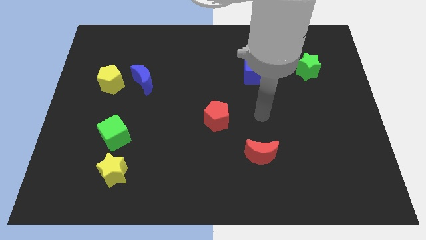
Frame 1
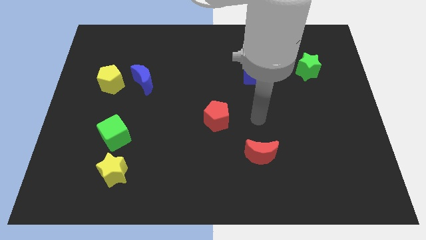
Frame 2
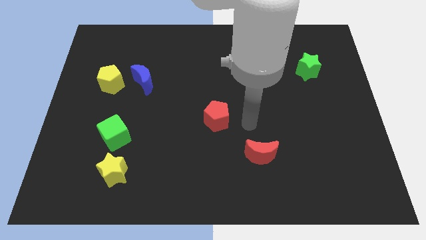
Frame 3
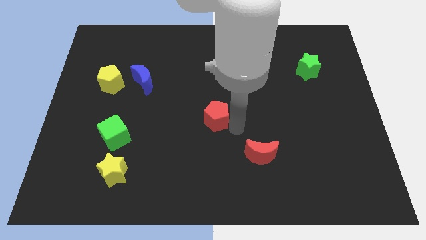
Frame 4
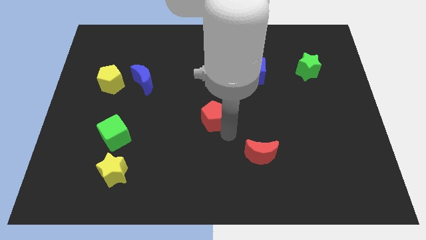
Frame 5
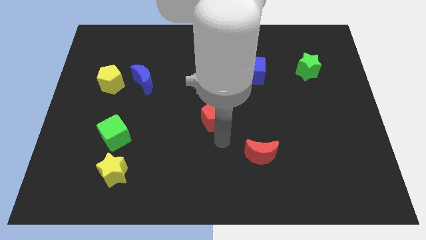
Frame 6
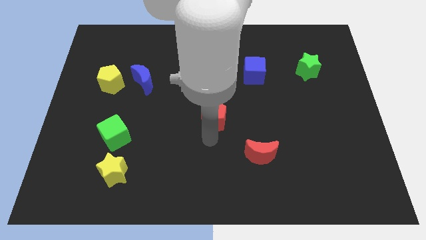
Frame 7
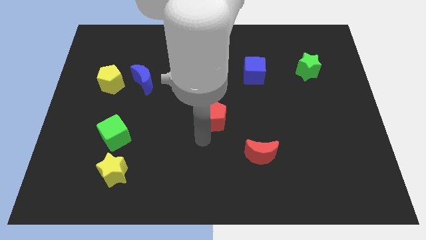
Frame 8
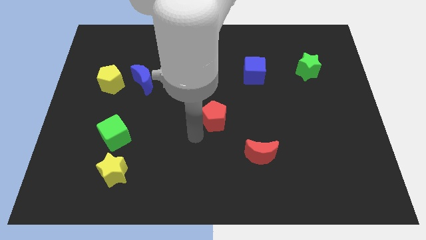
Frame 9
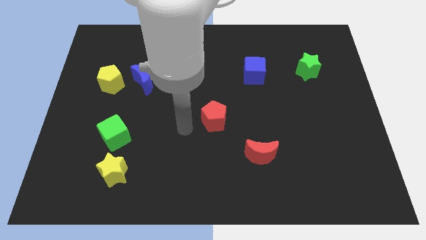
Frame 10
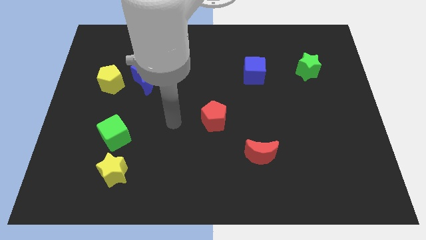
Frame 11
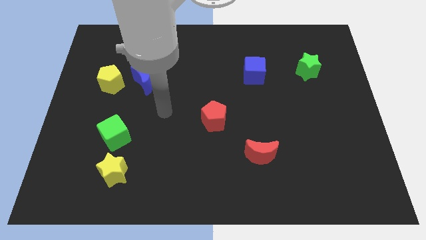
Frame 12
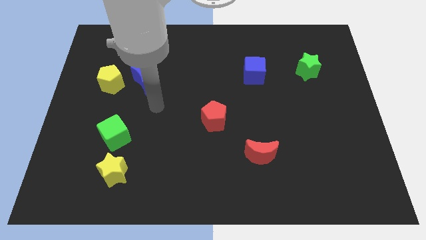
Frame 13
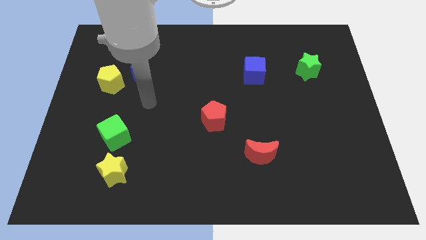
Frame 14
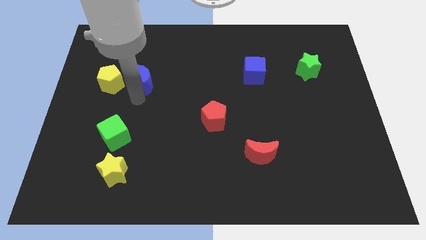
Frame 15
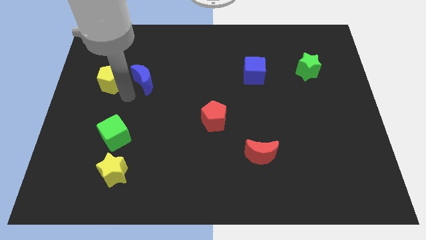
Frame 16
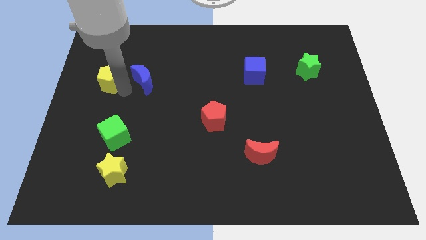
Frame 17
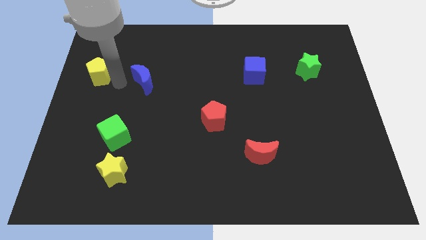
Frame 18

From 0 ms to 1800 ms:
pull the blue moon apart from the yellow pentagon

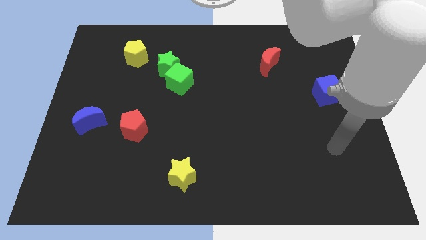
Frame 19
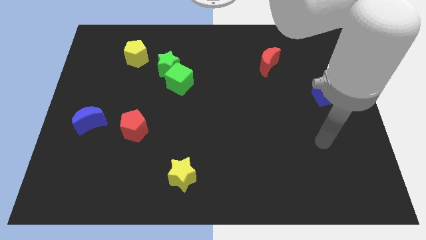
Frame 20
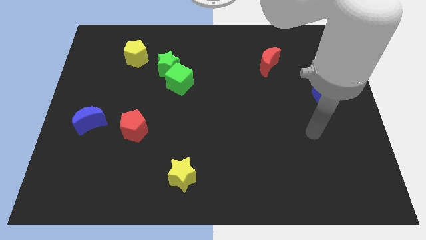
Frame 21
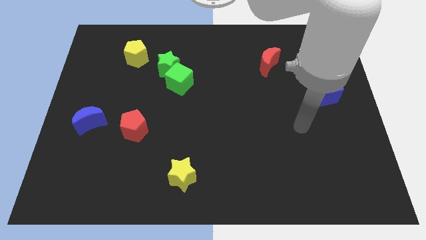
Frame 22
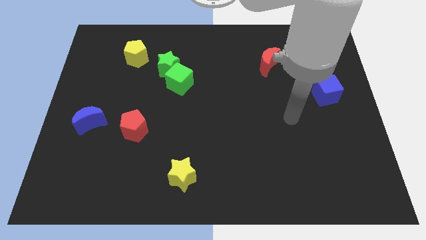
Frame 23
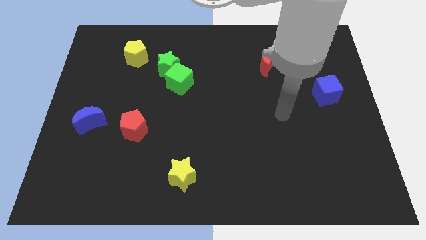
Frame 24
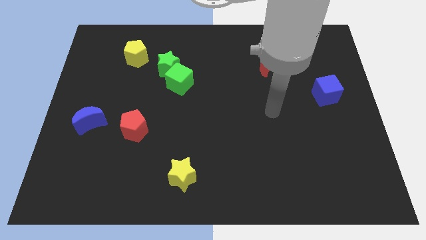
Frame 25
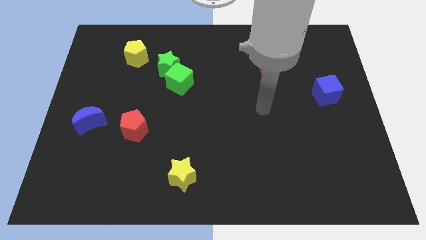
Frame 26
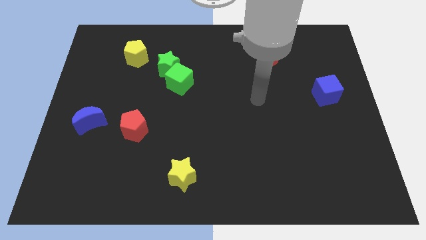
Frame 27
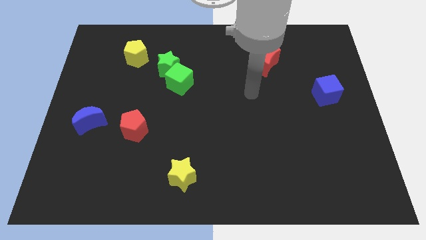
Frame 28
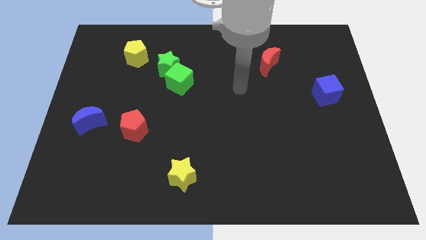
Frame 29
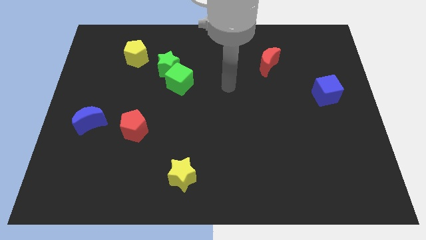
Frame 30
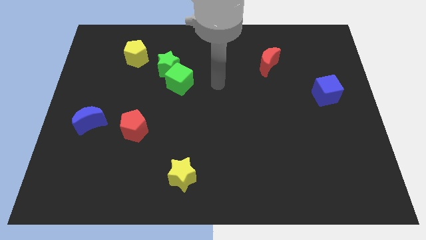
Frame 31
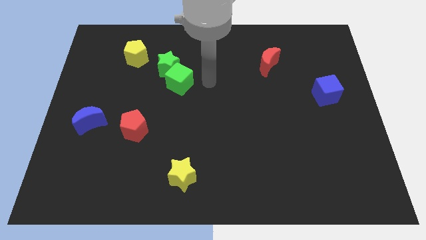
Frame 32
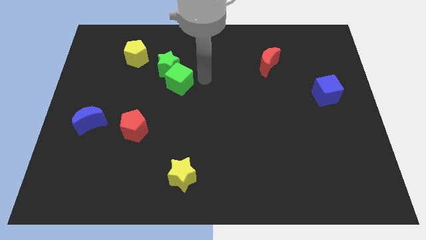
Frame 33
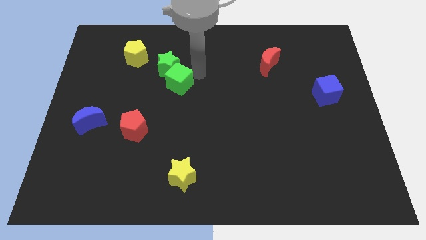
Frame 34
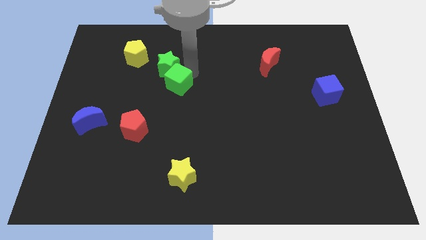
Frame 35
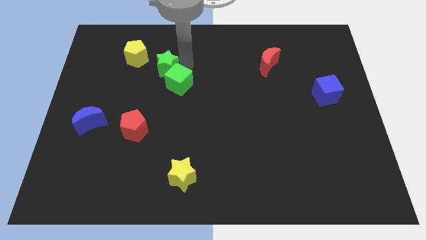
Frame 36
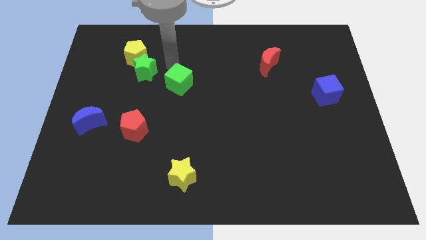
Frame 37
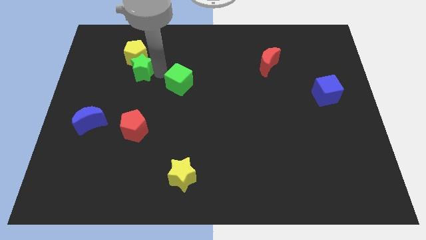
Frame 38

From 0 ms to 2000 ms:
move the green cube away from the green star

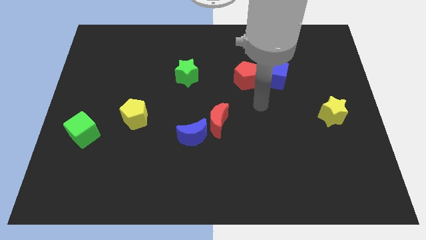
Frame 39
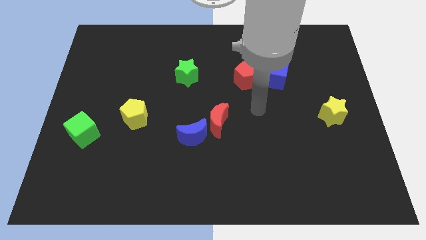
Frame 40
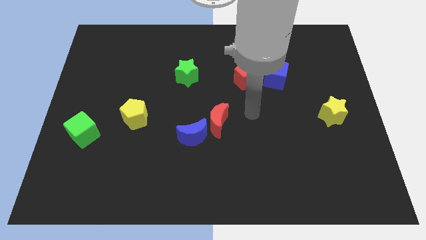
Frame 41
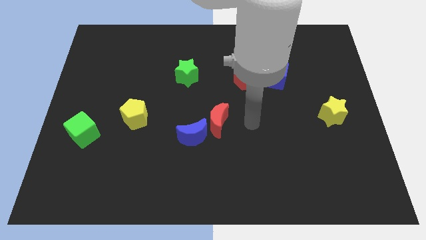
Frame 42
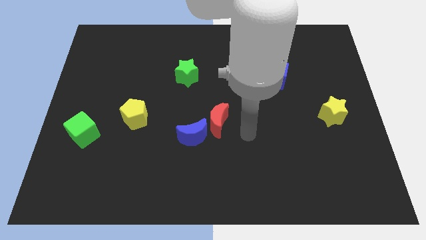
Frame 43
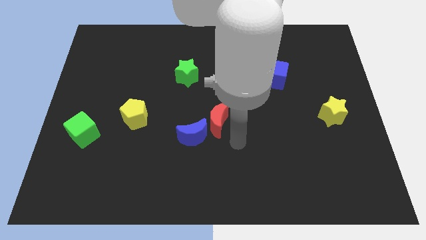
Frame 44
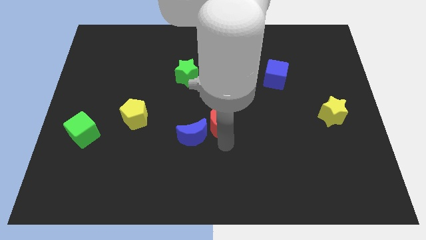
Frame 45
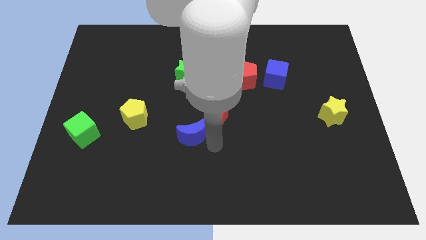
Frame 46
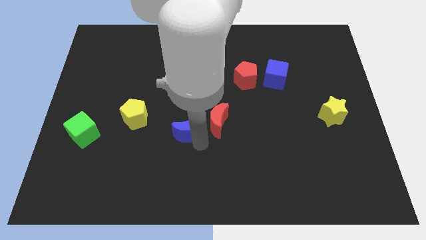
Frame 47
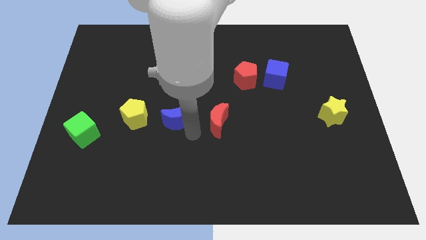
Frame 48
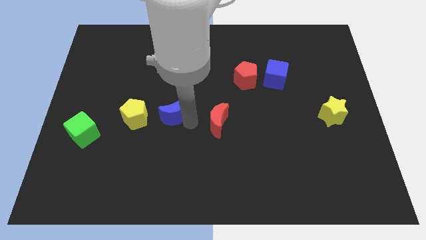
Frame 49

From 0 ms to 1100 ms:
pull the red moon apart from the blue moon

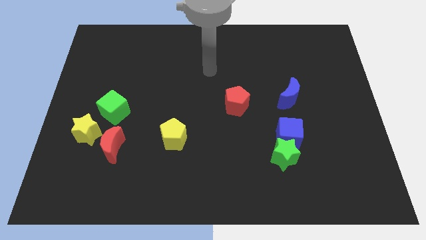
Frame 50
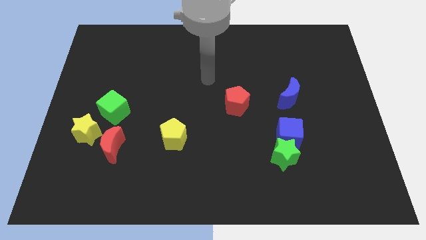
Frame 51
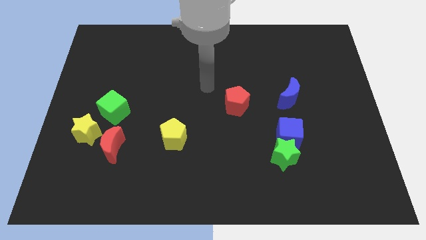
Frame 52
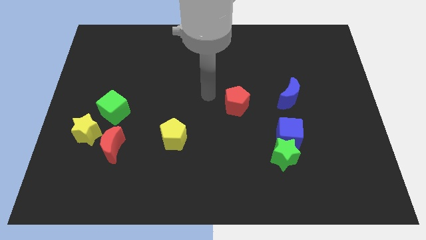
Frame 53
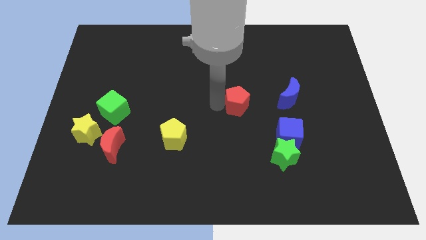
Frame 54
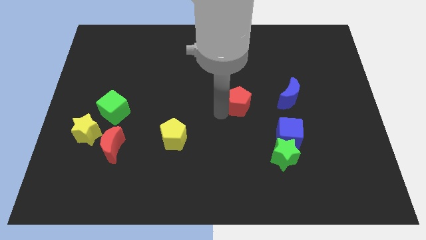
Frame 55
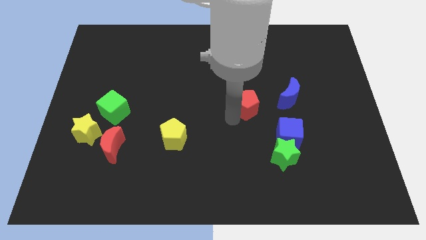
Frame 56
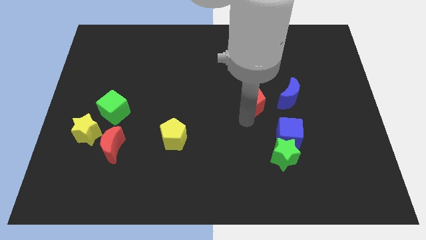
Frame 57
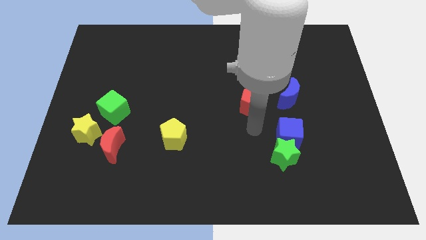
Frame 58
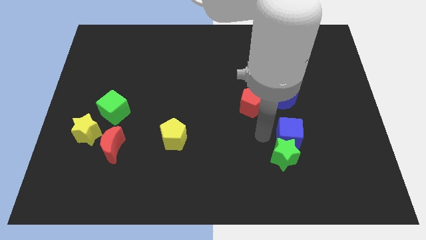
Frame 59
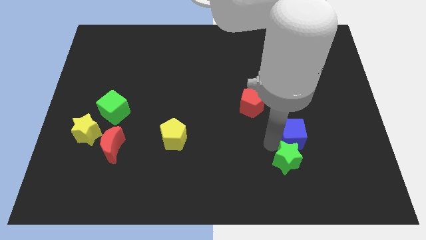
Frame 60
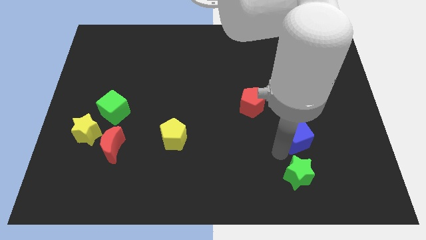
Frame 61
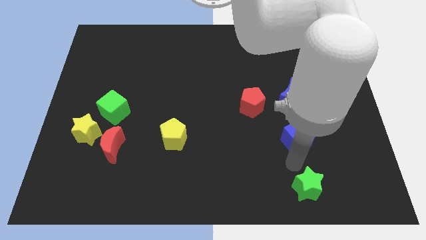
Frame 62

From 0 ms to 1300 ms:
pull the blue cube apart from the green star

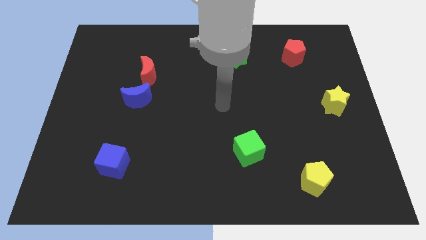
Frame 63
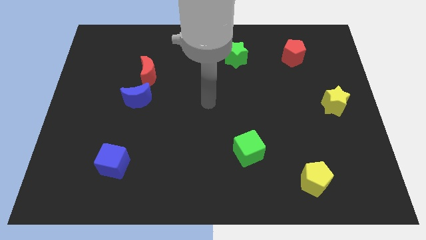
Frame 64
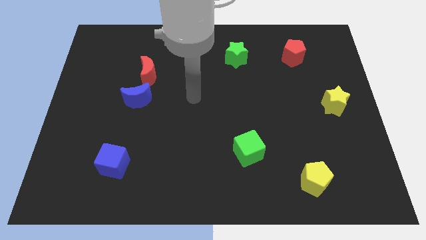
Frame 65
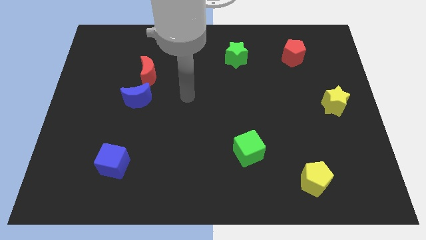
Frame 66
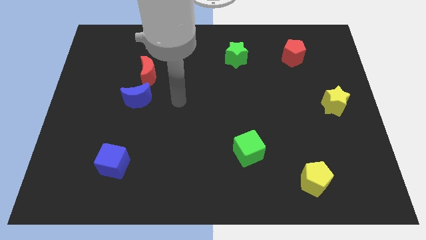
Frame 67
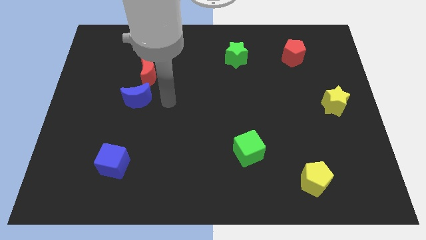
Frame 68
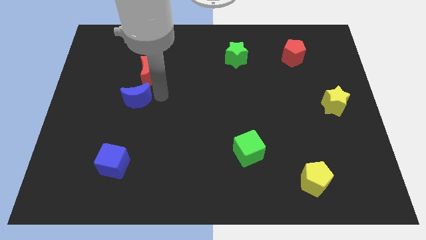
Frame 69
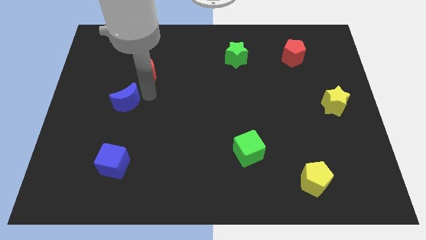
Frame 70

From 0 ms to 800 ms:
move the red moon away from the blue moon

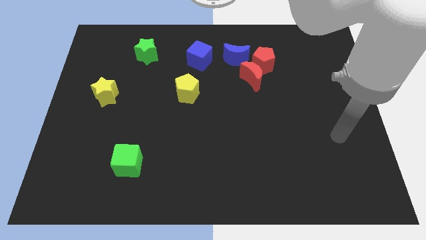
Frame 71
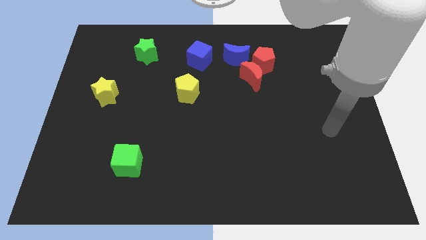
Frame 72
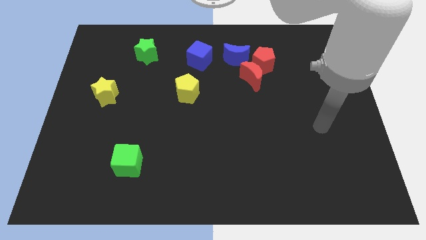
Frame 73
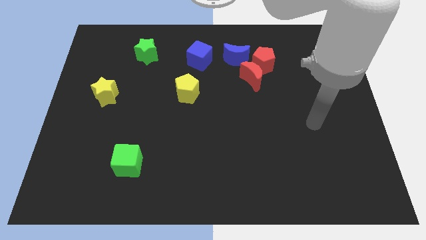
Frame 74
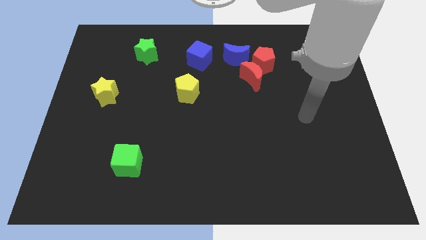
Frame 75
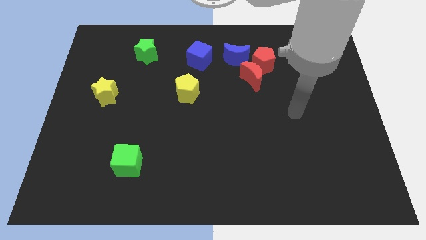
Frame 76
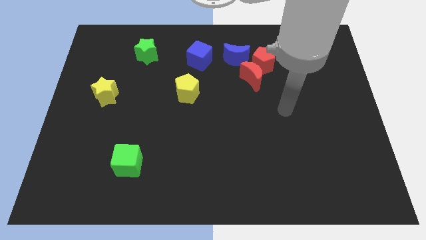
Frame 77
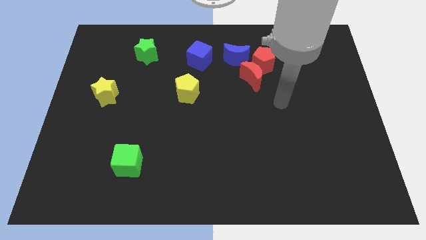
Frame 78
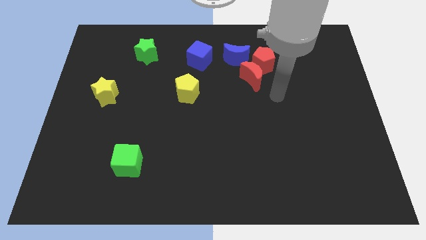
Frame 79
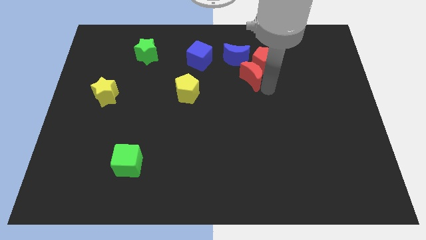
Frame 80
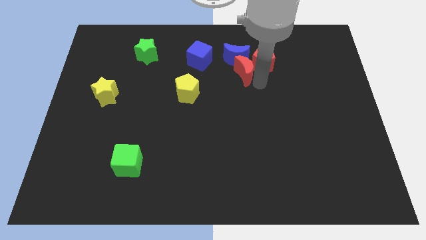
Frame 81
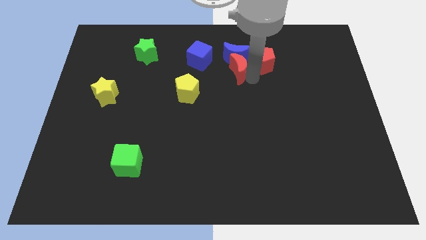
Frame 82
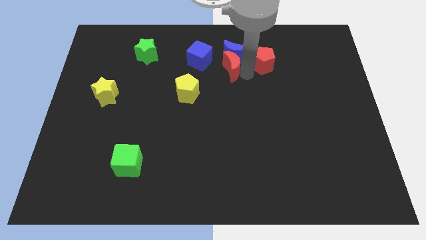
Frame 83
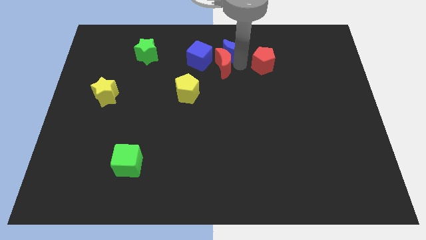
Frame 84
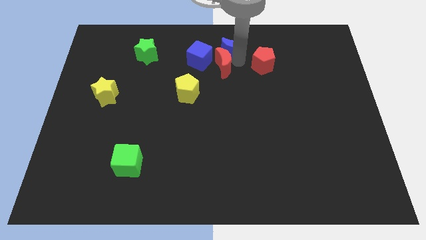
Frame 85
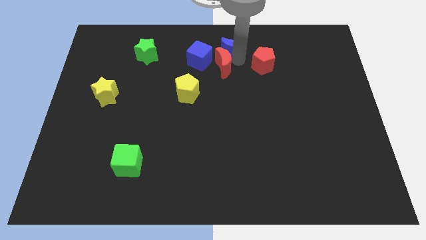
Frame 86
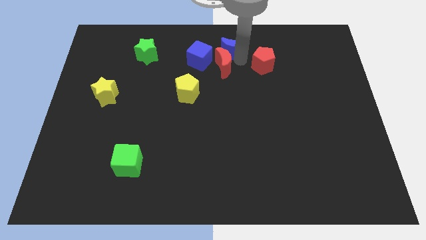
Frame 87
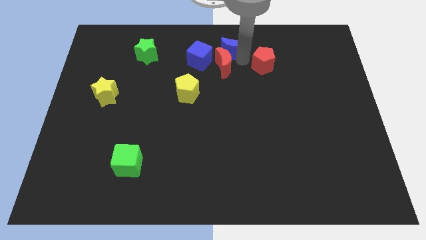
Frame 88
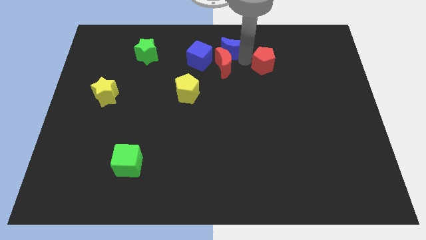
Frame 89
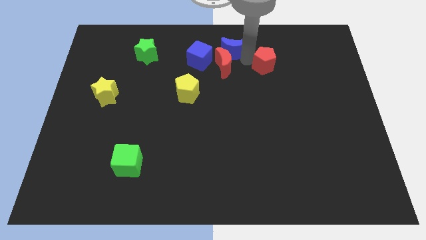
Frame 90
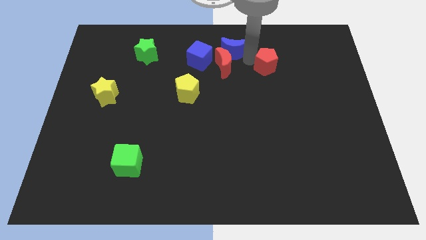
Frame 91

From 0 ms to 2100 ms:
pull the red pentagon apart from the red moon and blue moon

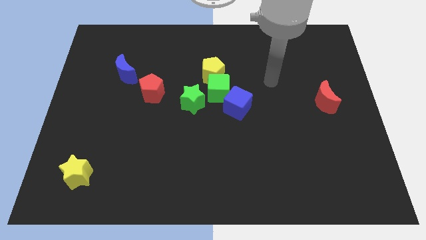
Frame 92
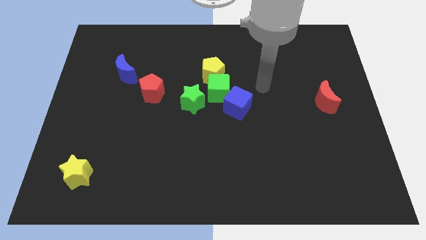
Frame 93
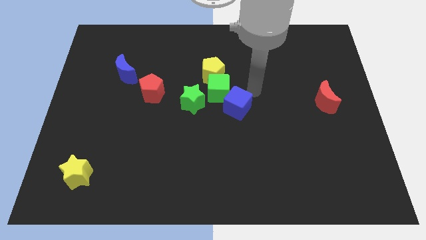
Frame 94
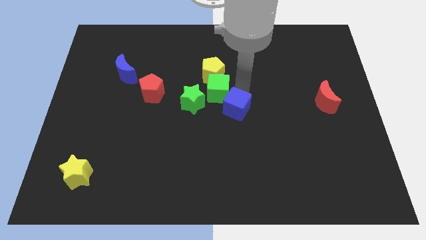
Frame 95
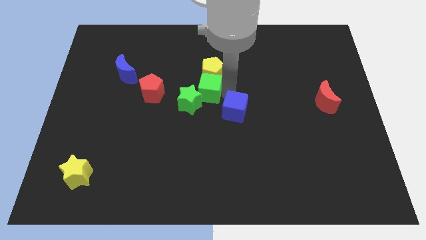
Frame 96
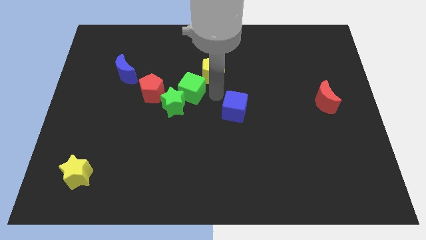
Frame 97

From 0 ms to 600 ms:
separate the blue cube from the green cube
